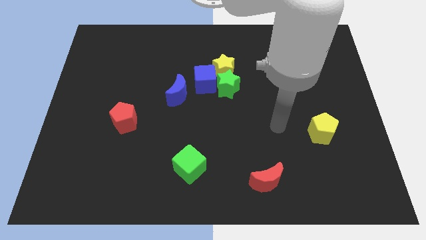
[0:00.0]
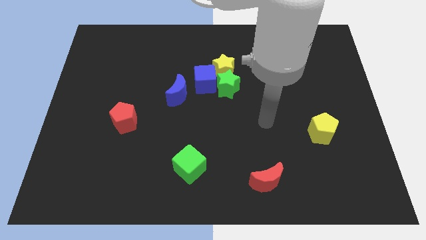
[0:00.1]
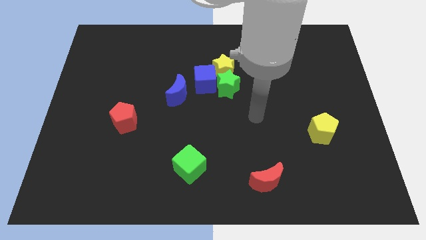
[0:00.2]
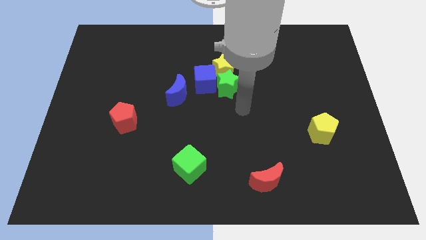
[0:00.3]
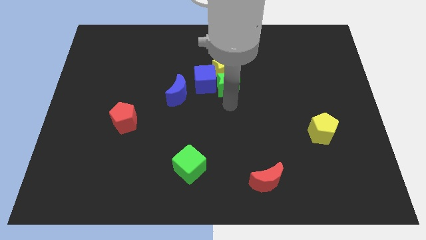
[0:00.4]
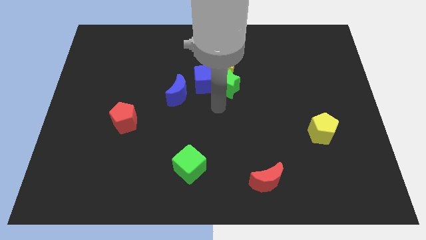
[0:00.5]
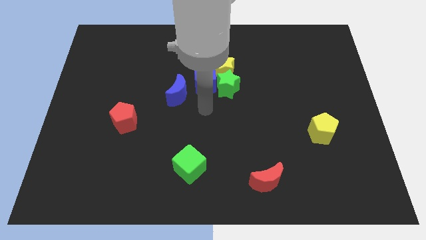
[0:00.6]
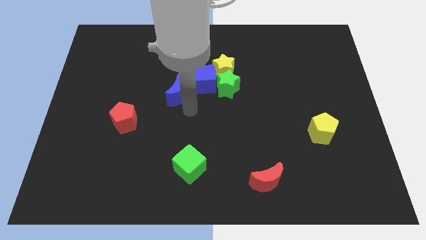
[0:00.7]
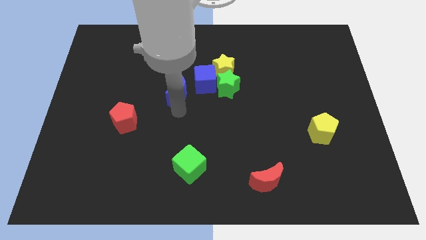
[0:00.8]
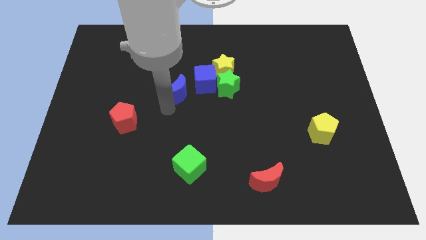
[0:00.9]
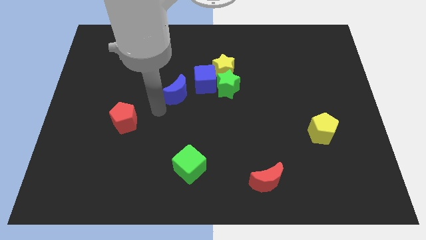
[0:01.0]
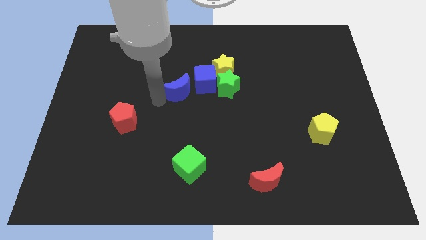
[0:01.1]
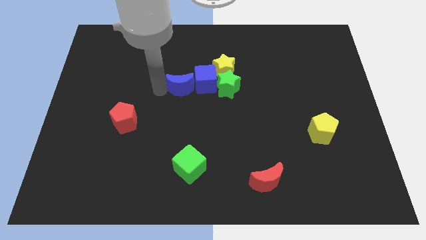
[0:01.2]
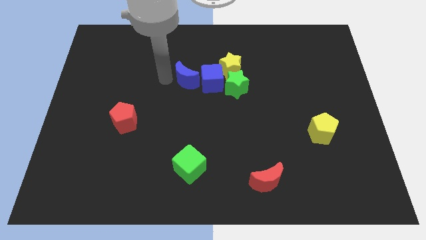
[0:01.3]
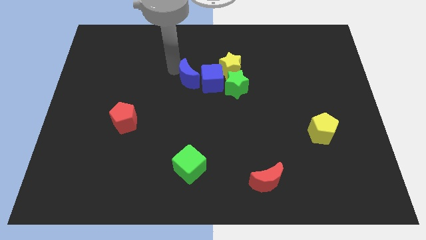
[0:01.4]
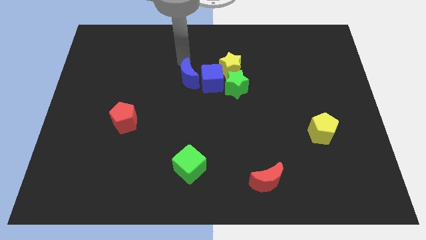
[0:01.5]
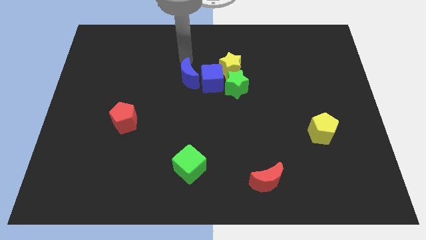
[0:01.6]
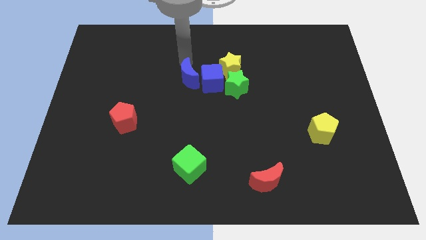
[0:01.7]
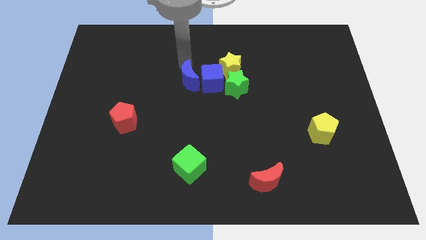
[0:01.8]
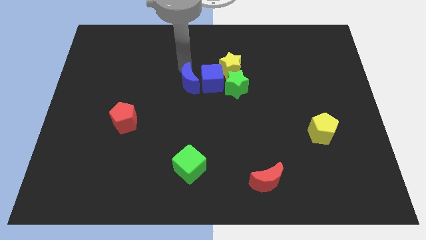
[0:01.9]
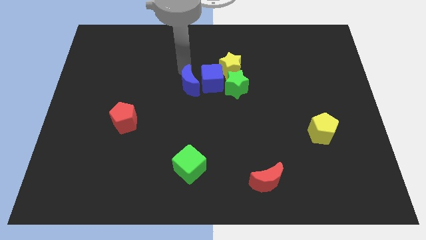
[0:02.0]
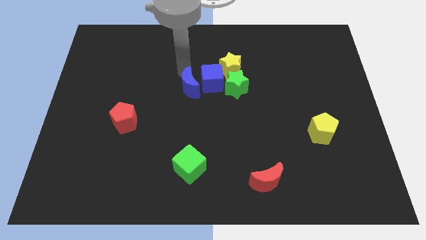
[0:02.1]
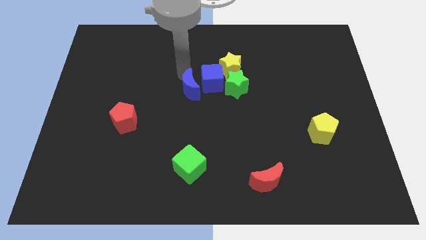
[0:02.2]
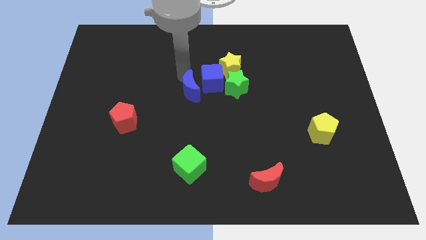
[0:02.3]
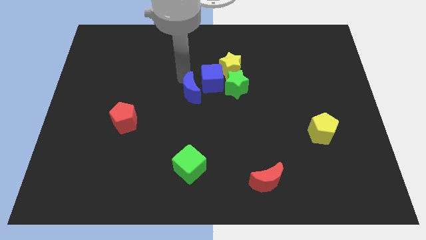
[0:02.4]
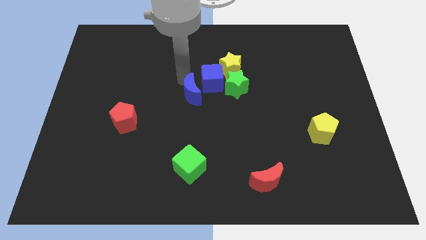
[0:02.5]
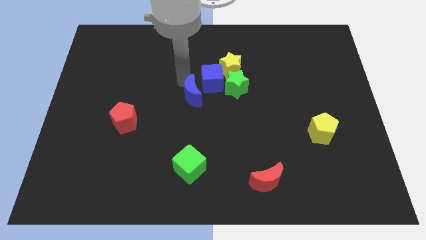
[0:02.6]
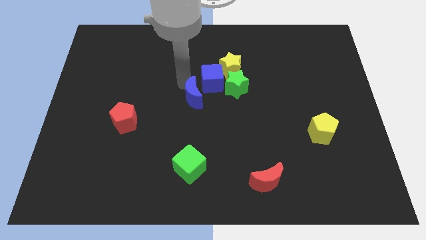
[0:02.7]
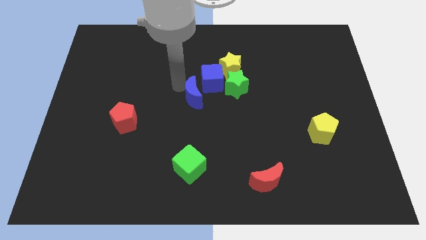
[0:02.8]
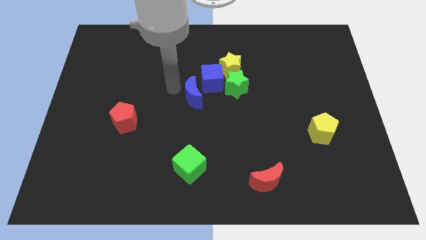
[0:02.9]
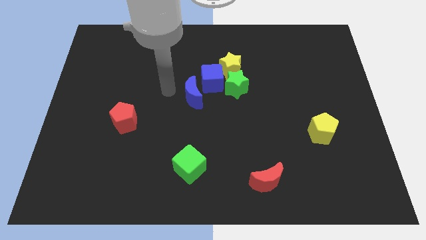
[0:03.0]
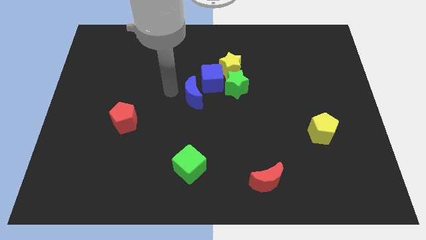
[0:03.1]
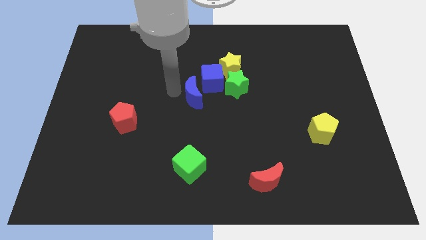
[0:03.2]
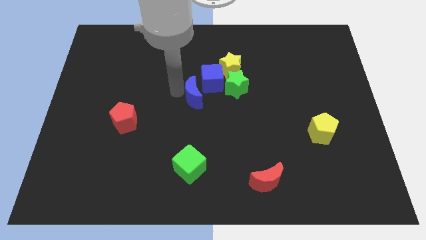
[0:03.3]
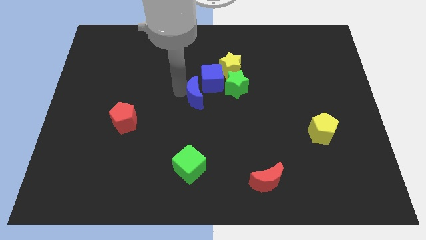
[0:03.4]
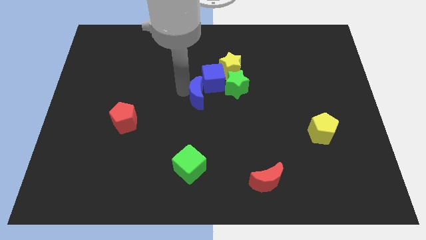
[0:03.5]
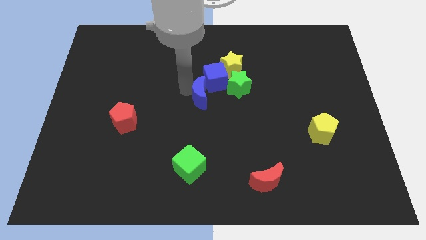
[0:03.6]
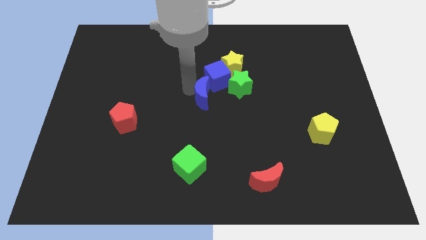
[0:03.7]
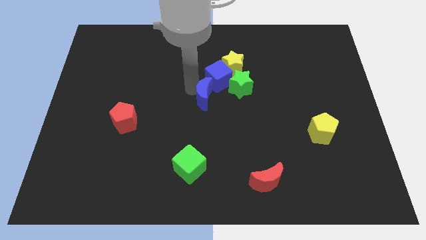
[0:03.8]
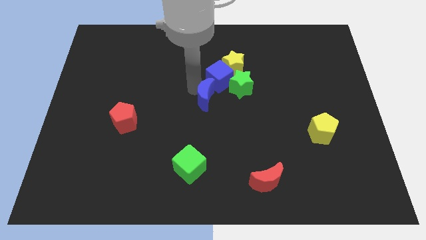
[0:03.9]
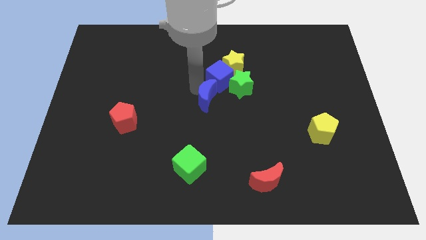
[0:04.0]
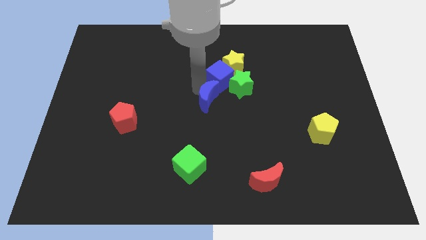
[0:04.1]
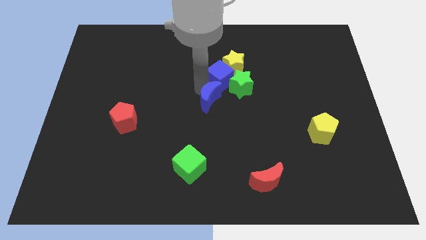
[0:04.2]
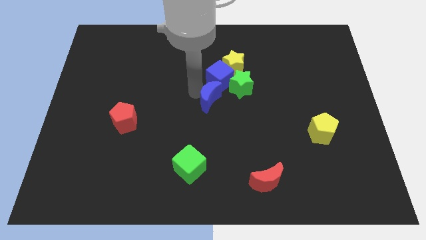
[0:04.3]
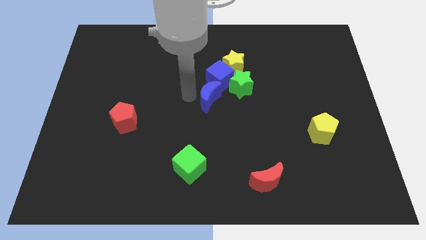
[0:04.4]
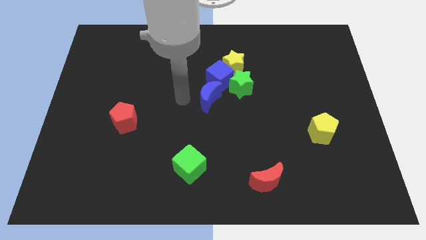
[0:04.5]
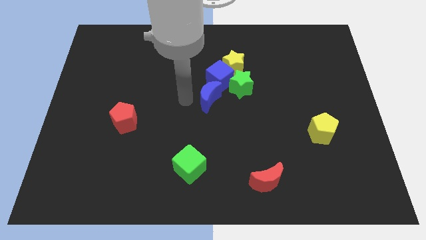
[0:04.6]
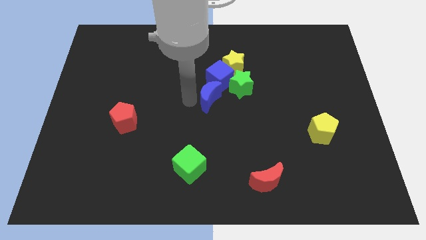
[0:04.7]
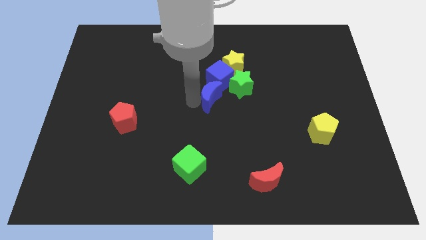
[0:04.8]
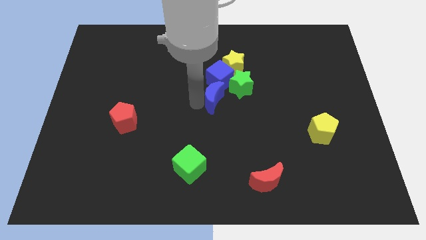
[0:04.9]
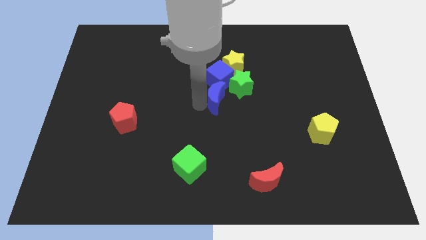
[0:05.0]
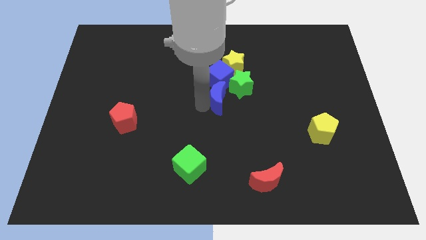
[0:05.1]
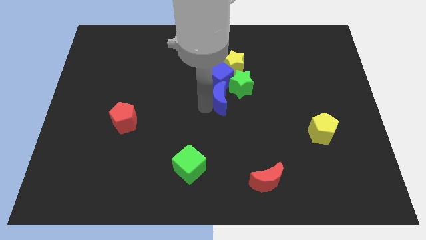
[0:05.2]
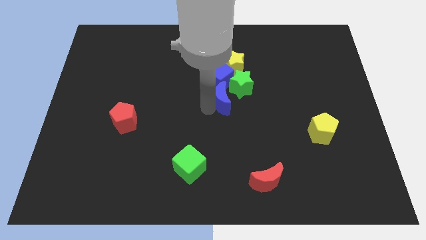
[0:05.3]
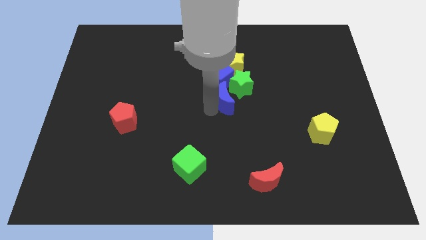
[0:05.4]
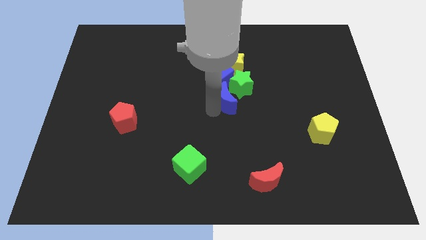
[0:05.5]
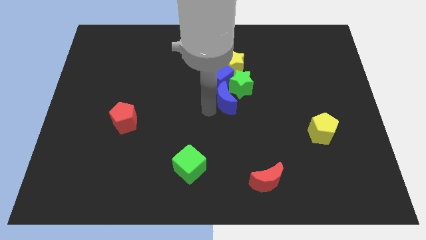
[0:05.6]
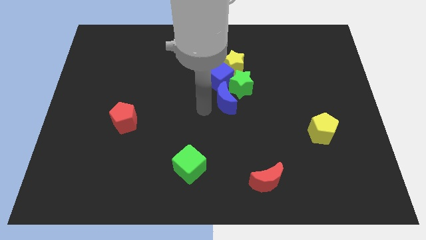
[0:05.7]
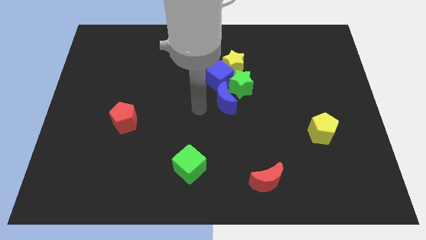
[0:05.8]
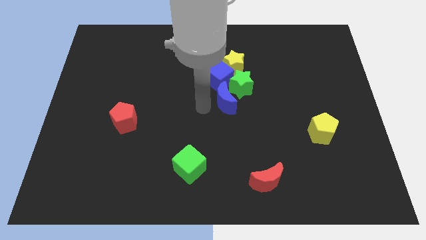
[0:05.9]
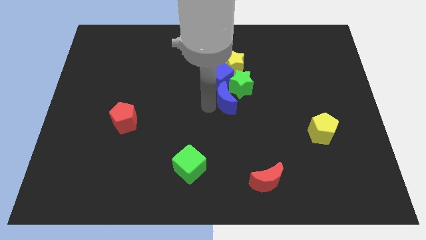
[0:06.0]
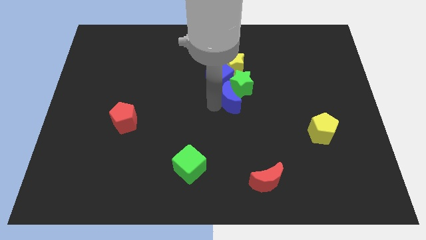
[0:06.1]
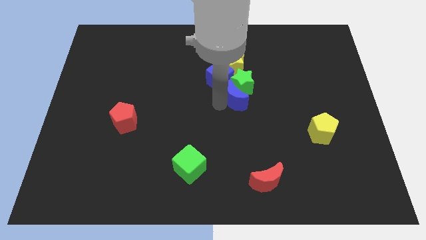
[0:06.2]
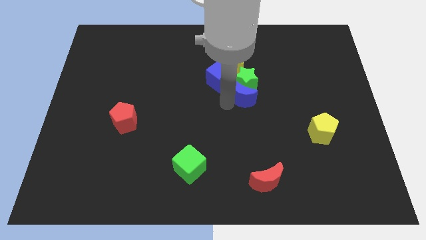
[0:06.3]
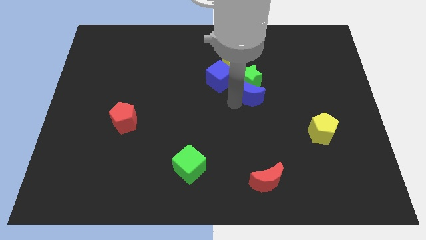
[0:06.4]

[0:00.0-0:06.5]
put the blue moon diagonally down and to the right of the yellow star
